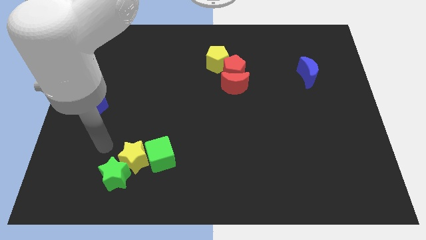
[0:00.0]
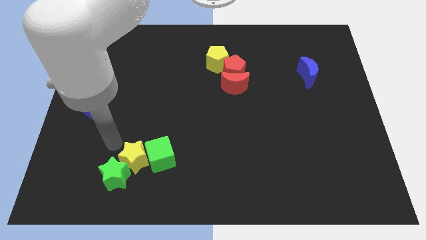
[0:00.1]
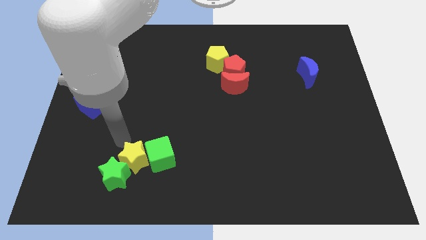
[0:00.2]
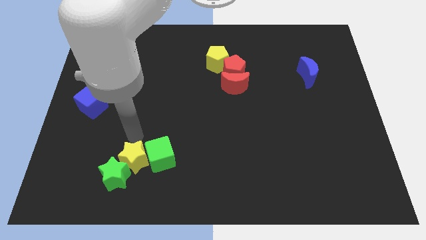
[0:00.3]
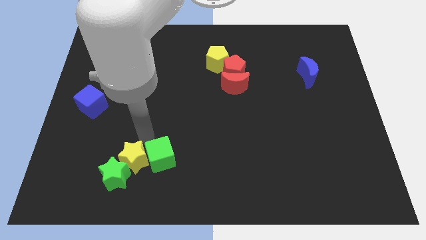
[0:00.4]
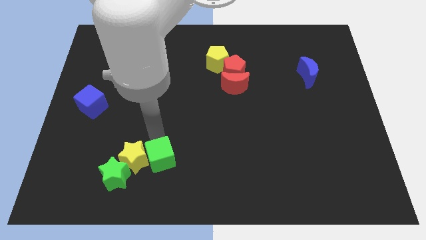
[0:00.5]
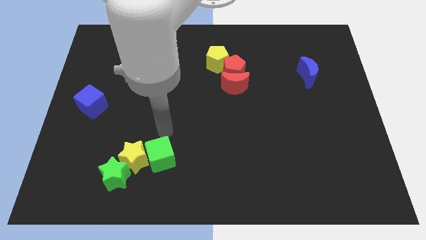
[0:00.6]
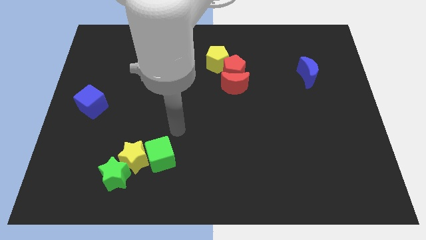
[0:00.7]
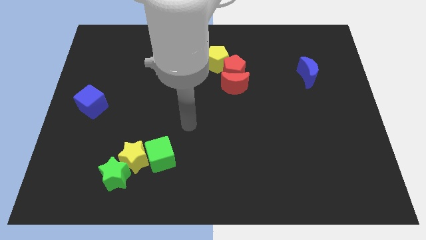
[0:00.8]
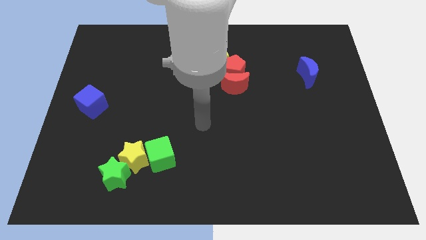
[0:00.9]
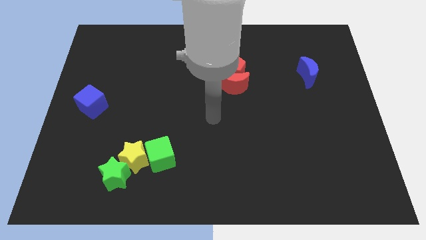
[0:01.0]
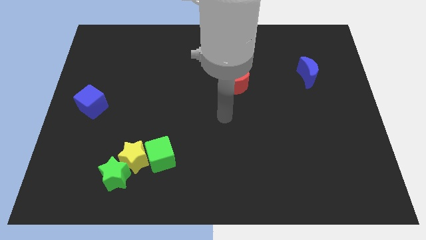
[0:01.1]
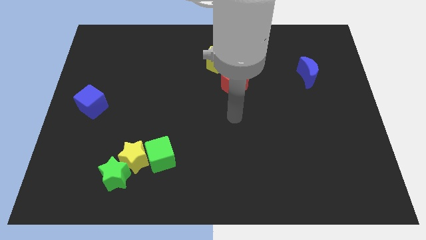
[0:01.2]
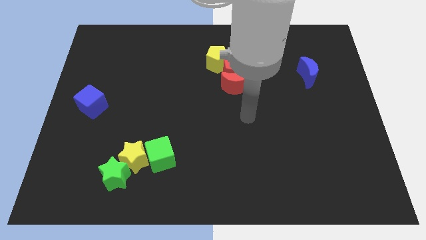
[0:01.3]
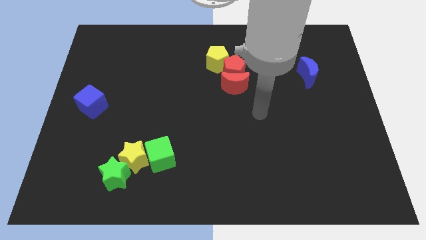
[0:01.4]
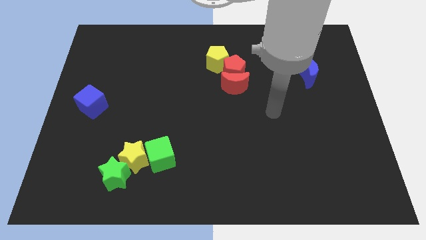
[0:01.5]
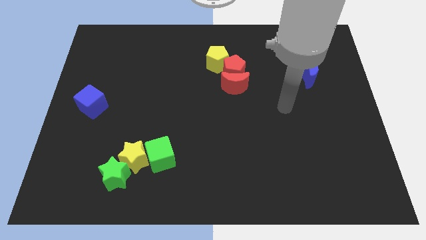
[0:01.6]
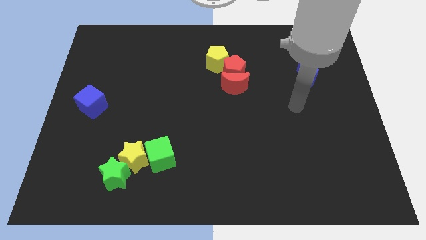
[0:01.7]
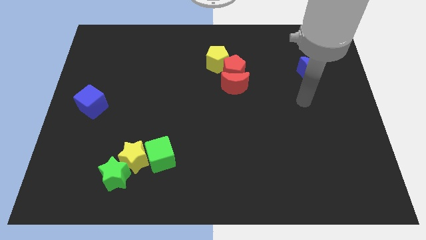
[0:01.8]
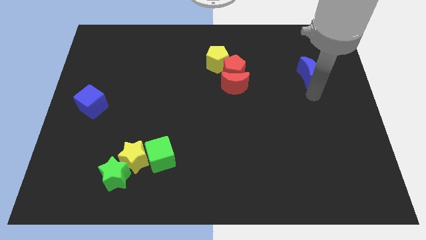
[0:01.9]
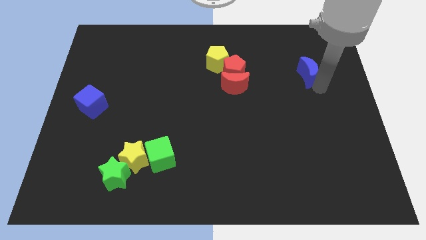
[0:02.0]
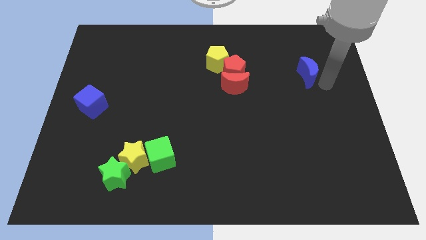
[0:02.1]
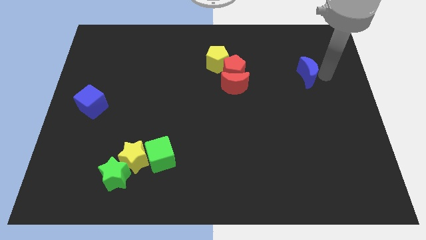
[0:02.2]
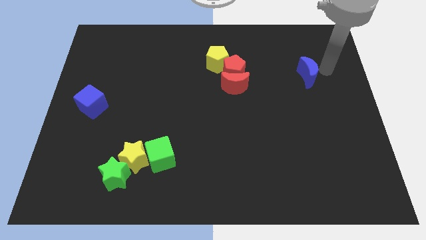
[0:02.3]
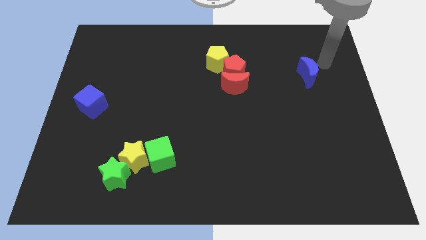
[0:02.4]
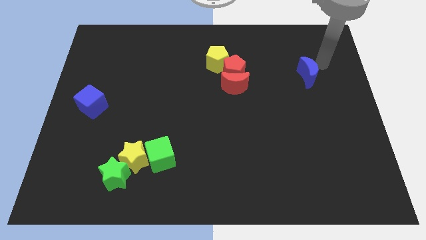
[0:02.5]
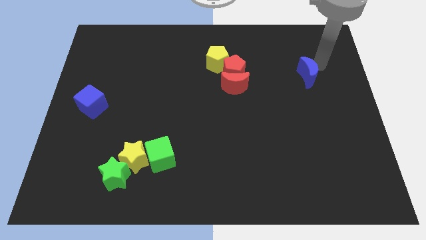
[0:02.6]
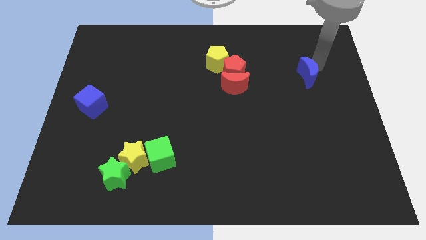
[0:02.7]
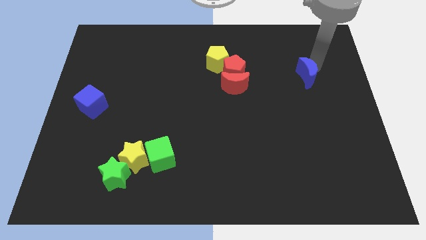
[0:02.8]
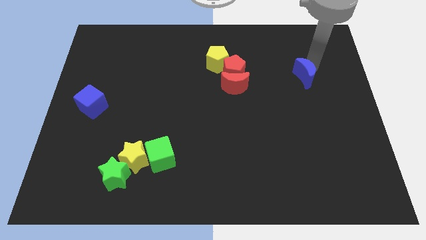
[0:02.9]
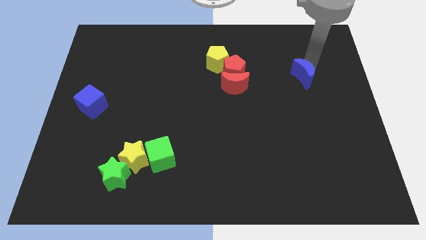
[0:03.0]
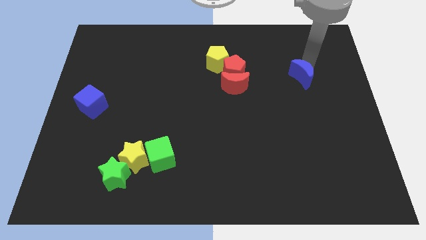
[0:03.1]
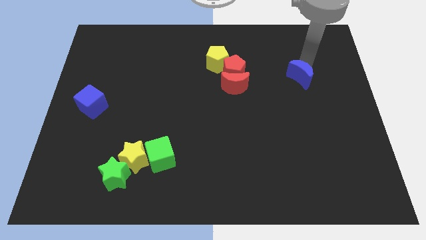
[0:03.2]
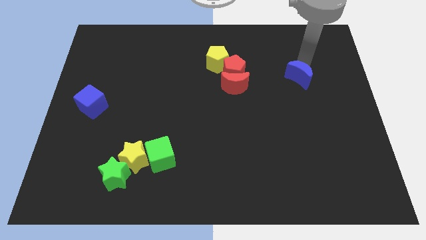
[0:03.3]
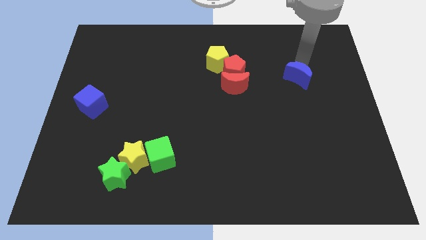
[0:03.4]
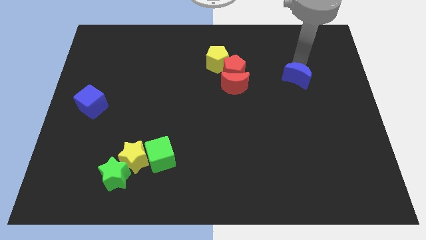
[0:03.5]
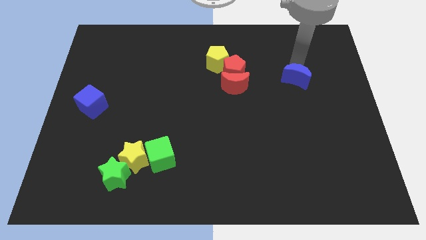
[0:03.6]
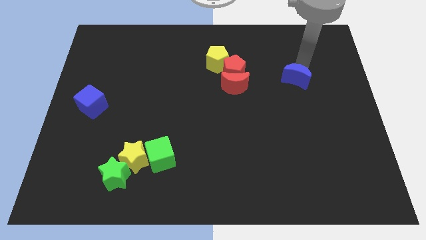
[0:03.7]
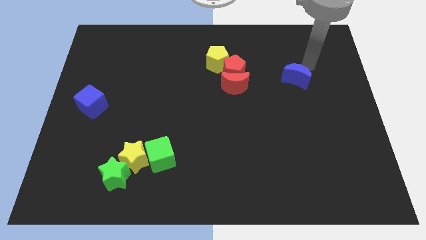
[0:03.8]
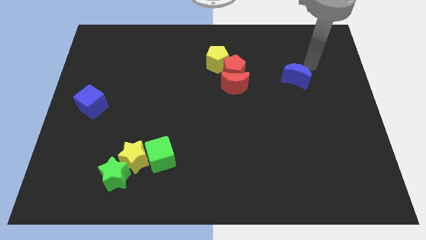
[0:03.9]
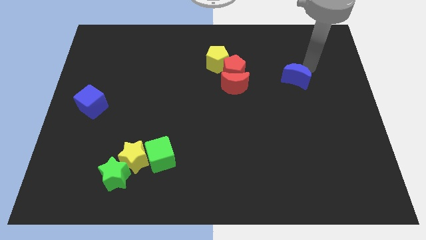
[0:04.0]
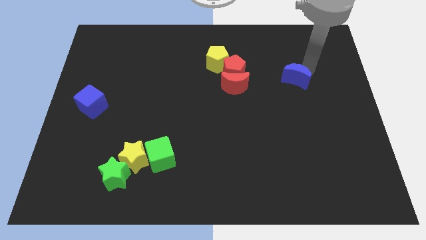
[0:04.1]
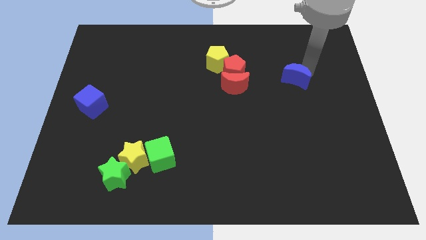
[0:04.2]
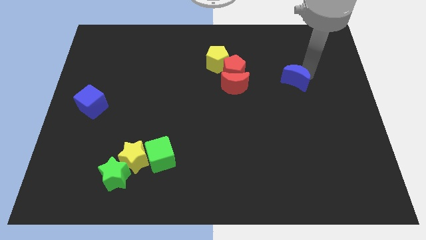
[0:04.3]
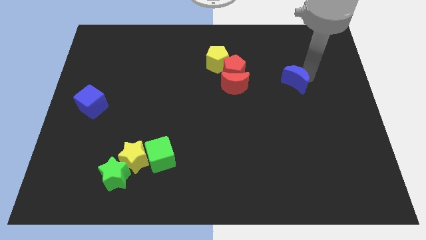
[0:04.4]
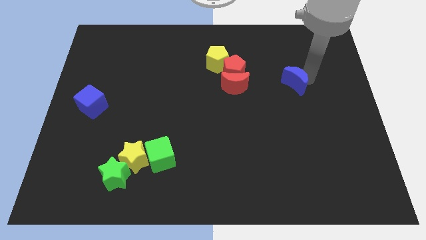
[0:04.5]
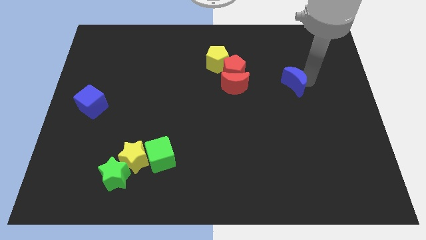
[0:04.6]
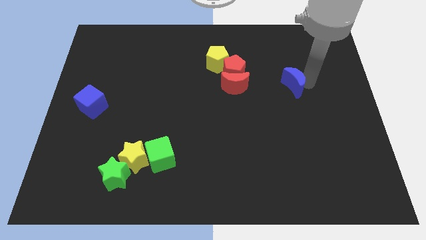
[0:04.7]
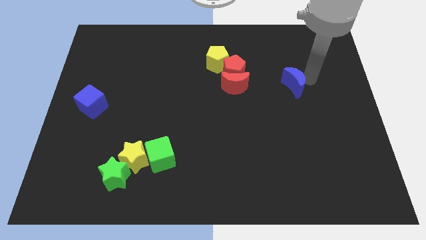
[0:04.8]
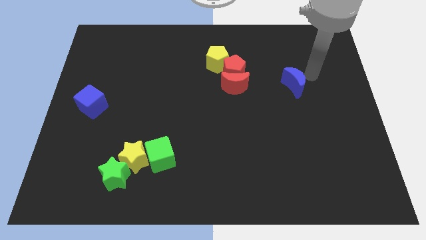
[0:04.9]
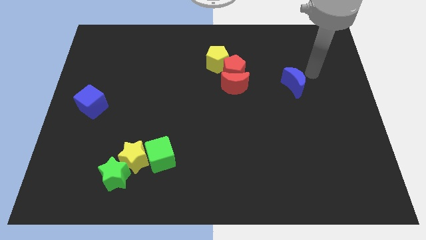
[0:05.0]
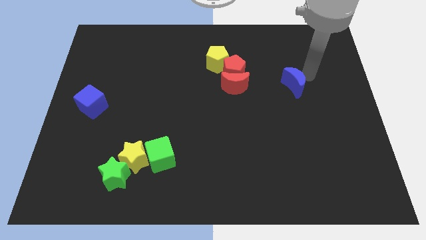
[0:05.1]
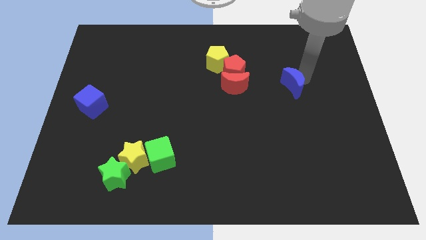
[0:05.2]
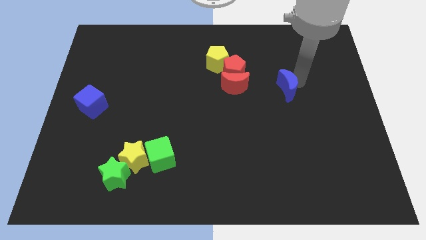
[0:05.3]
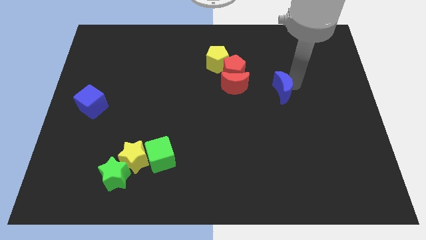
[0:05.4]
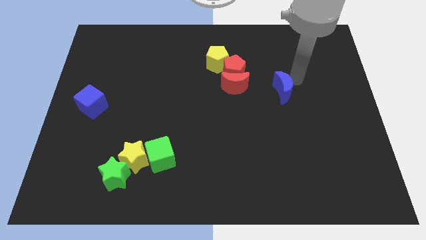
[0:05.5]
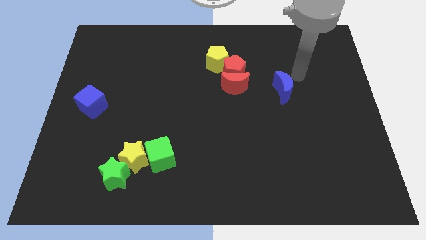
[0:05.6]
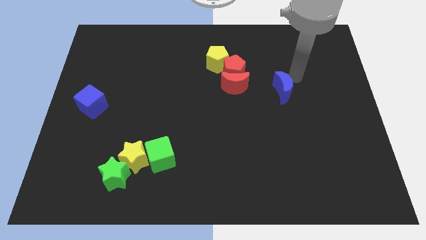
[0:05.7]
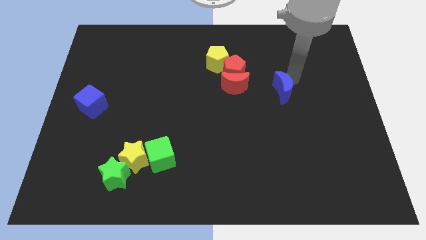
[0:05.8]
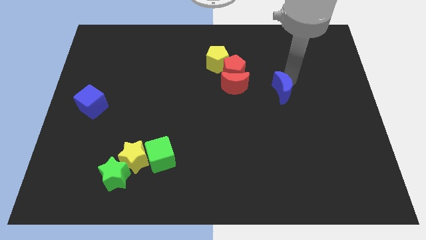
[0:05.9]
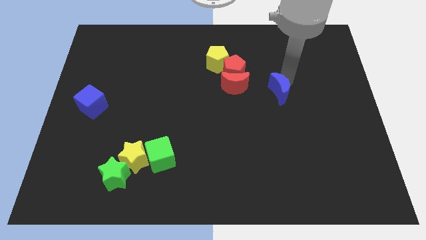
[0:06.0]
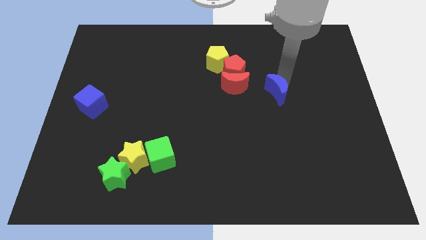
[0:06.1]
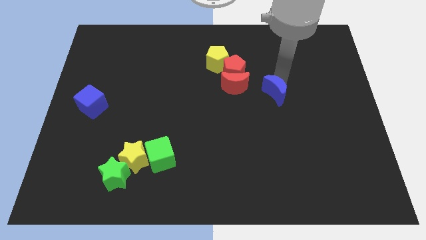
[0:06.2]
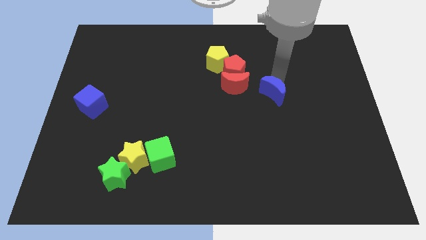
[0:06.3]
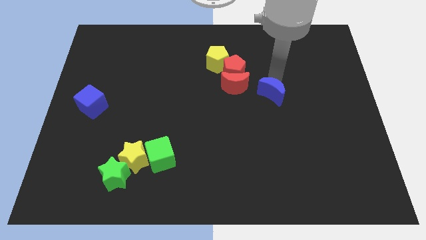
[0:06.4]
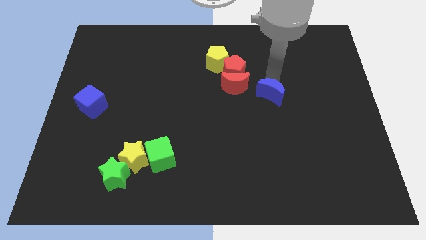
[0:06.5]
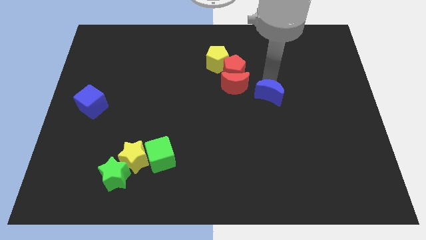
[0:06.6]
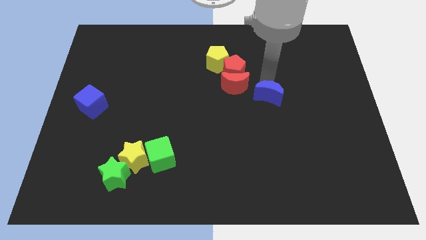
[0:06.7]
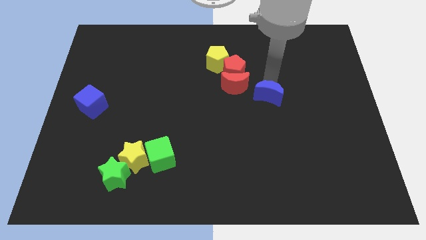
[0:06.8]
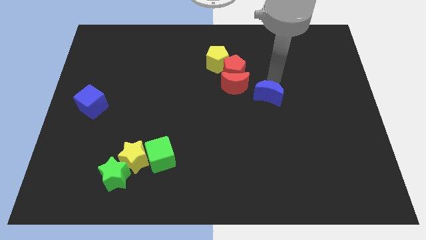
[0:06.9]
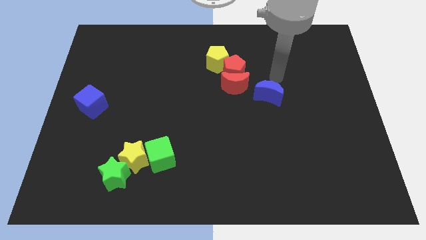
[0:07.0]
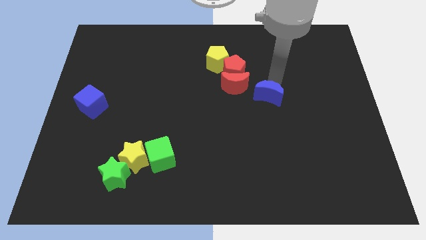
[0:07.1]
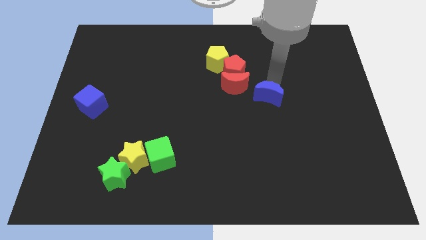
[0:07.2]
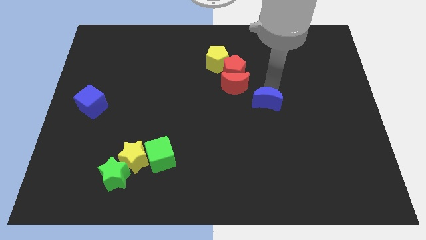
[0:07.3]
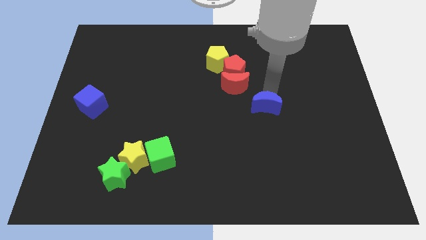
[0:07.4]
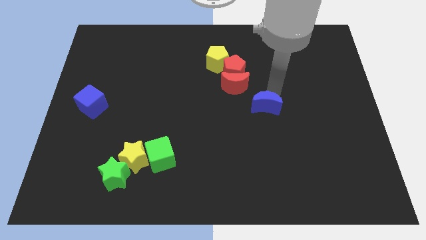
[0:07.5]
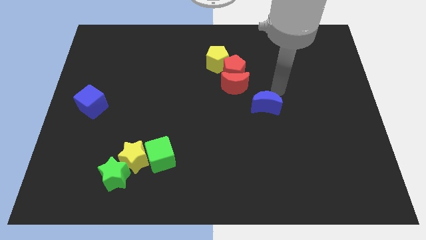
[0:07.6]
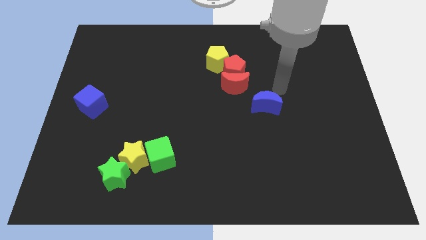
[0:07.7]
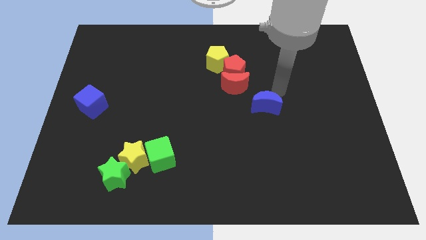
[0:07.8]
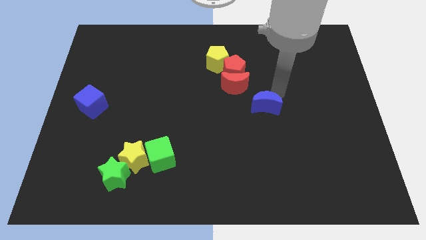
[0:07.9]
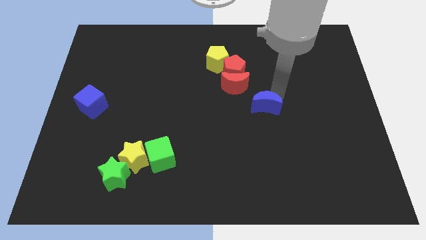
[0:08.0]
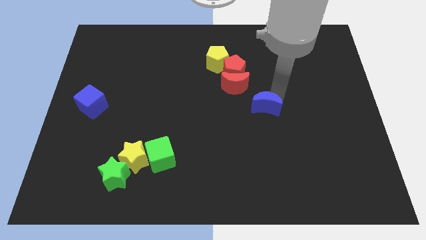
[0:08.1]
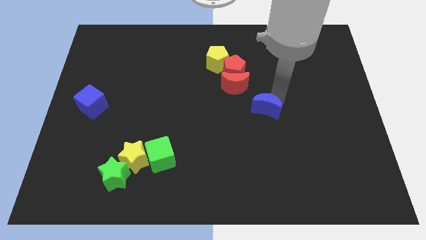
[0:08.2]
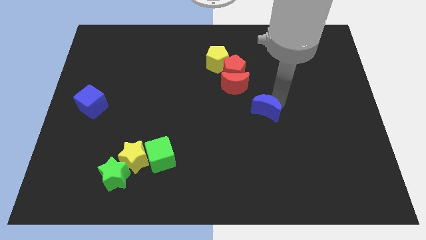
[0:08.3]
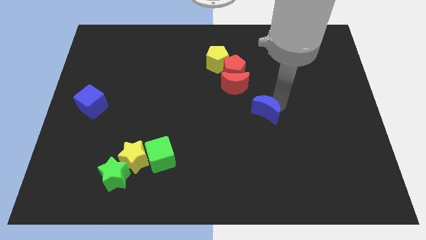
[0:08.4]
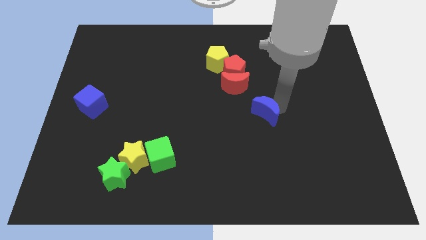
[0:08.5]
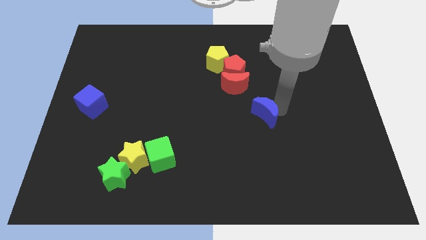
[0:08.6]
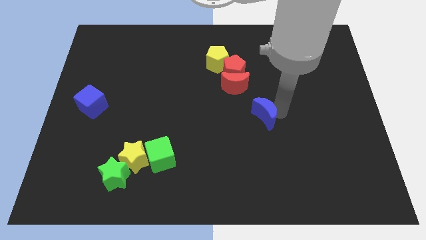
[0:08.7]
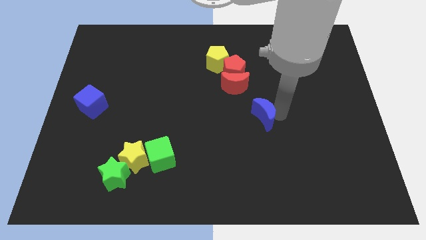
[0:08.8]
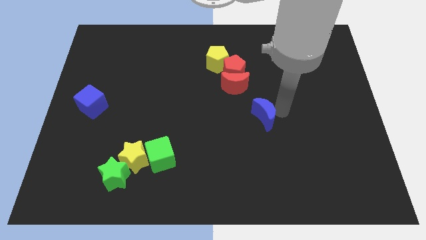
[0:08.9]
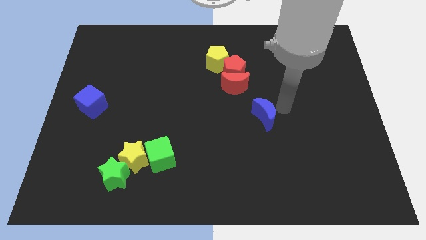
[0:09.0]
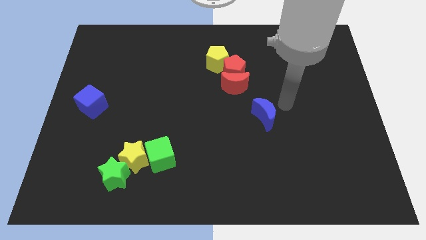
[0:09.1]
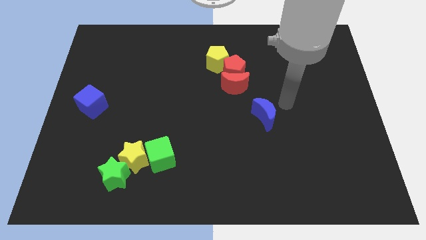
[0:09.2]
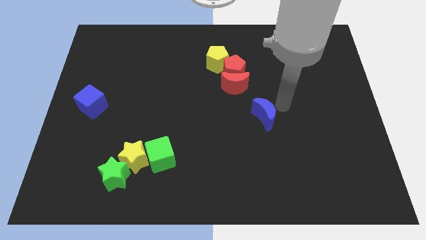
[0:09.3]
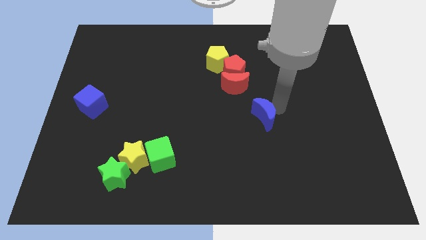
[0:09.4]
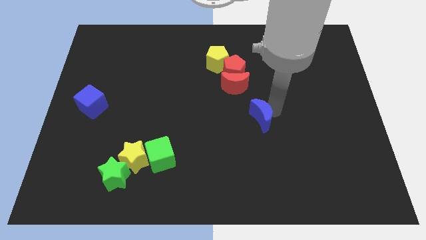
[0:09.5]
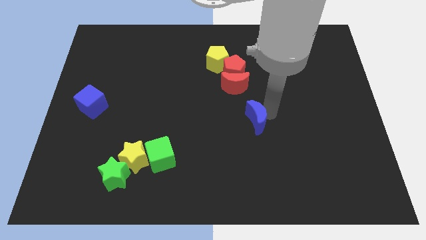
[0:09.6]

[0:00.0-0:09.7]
slide the blue moon down and left
